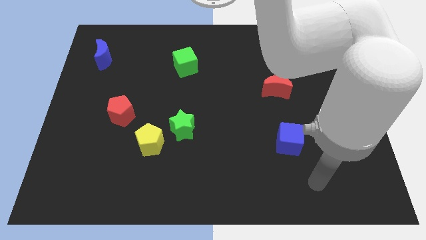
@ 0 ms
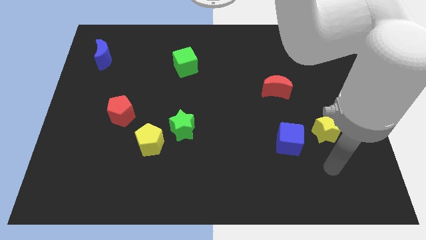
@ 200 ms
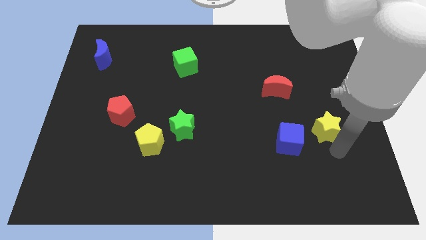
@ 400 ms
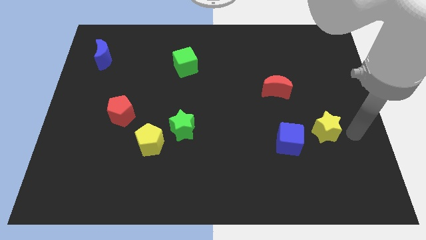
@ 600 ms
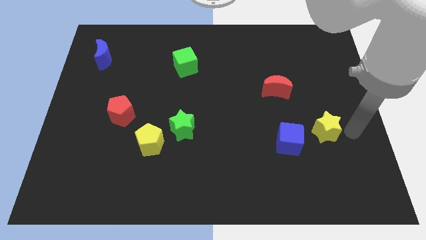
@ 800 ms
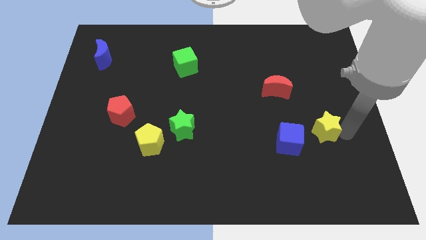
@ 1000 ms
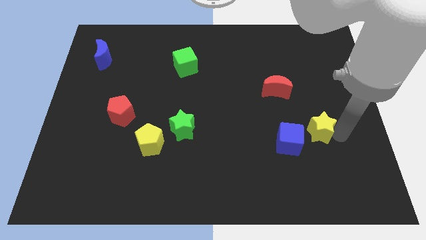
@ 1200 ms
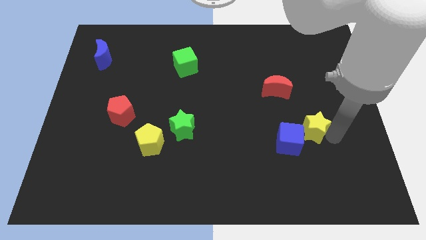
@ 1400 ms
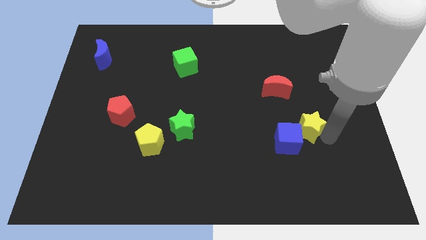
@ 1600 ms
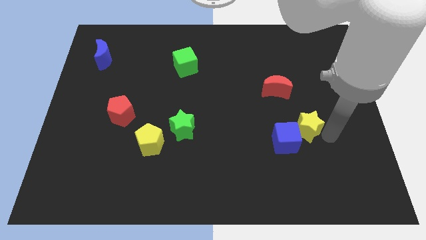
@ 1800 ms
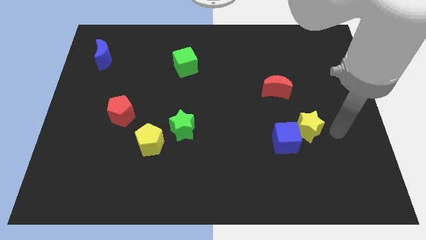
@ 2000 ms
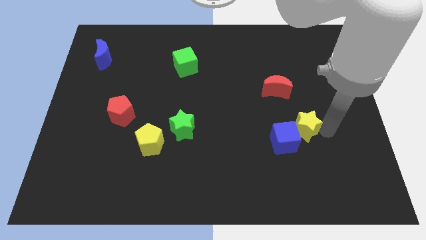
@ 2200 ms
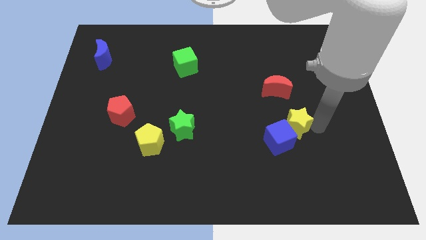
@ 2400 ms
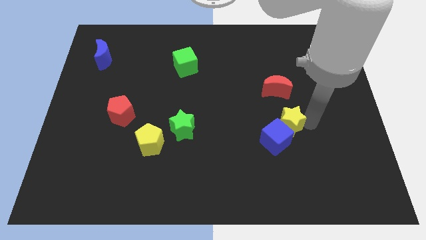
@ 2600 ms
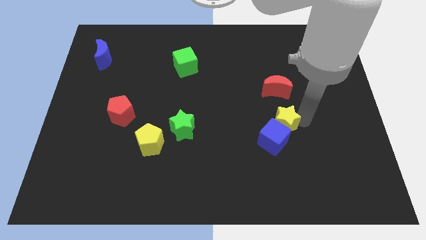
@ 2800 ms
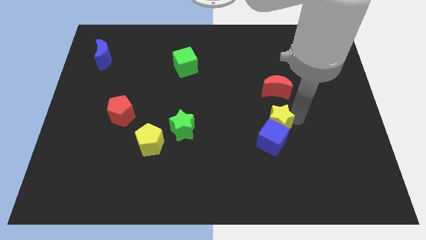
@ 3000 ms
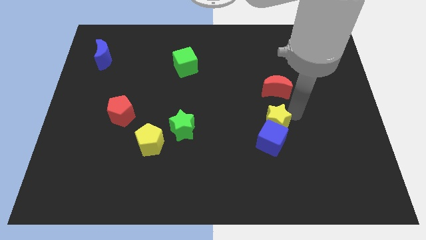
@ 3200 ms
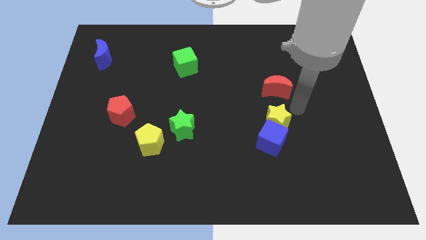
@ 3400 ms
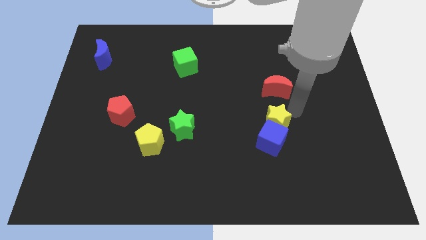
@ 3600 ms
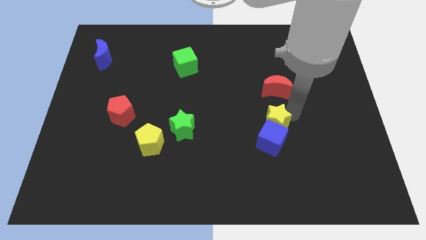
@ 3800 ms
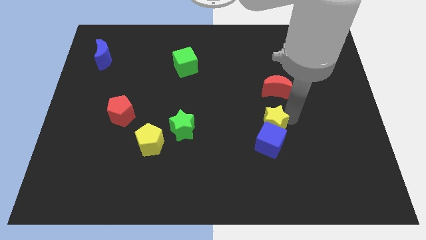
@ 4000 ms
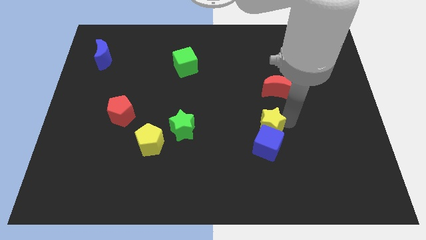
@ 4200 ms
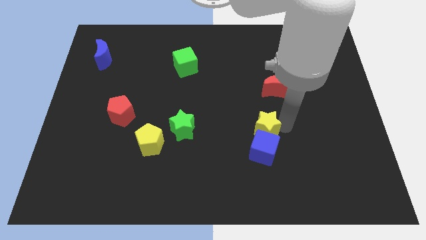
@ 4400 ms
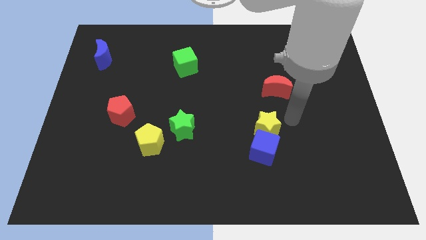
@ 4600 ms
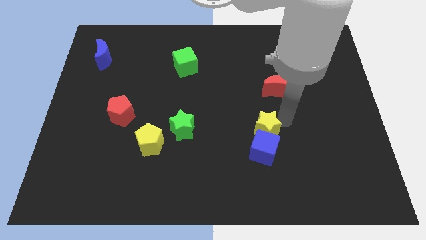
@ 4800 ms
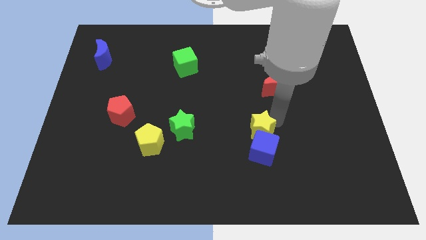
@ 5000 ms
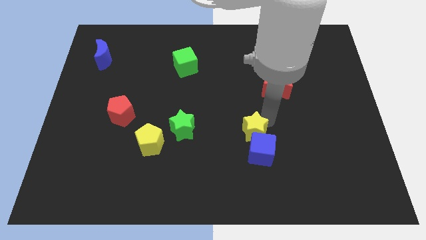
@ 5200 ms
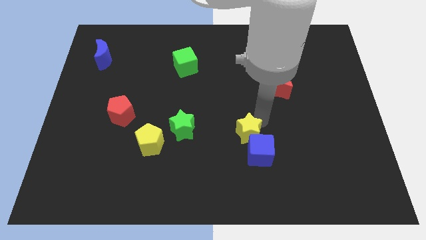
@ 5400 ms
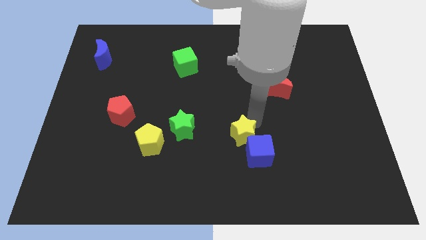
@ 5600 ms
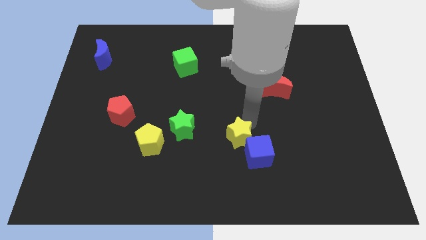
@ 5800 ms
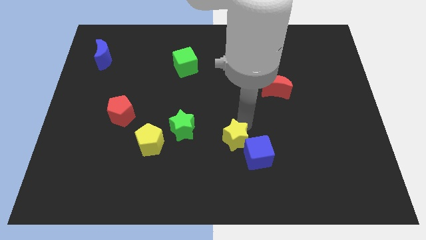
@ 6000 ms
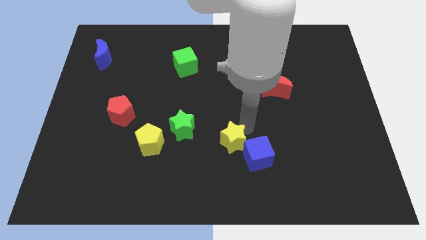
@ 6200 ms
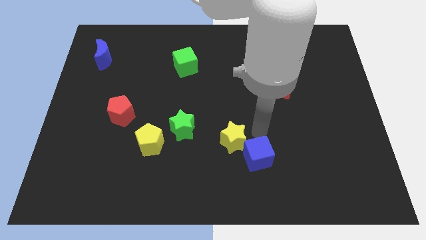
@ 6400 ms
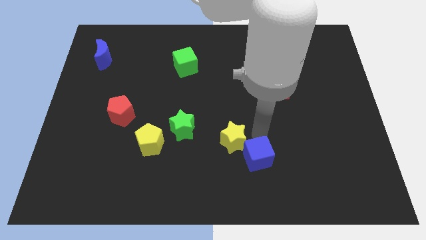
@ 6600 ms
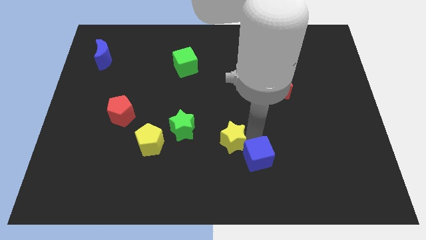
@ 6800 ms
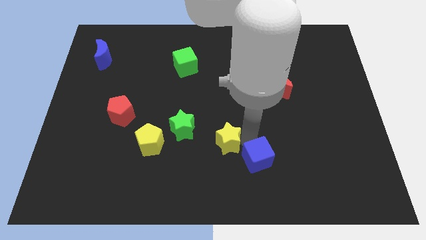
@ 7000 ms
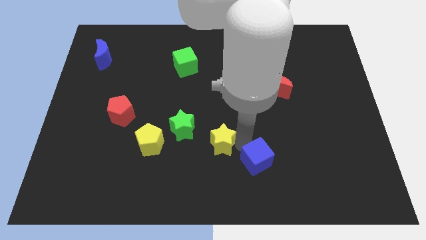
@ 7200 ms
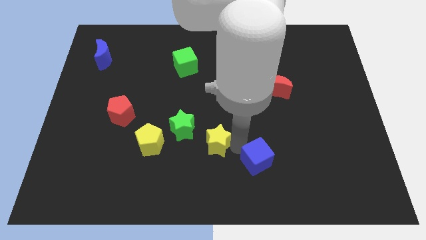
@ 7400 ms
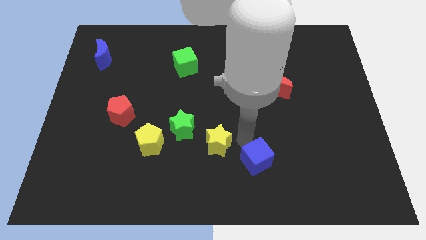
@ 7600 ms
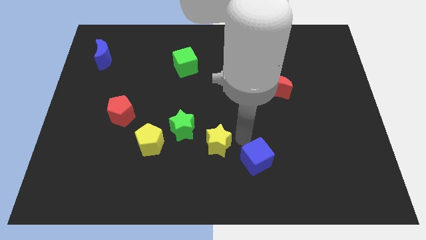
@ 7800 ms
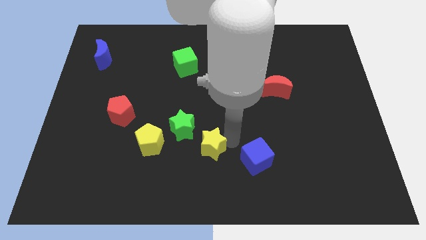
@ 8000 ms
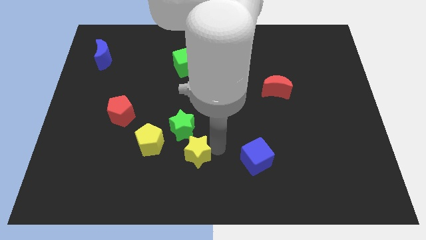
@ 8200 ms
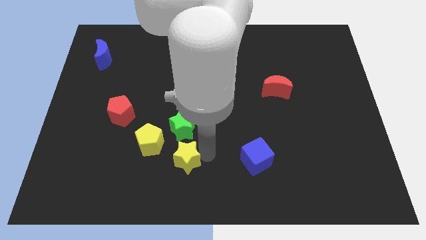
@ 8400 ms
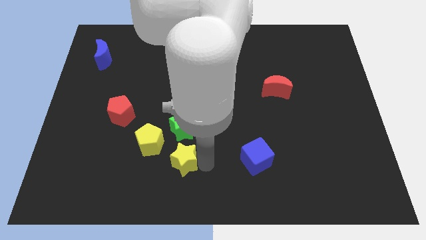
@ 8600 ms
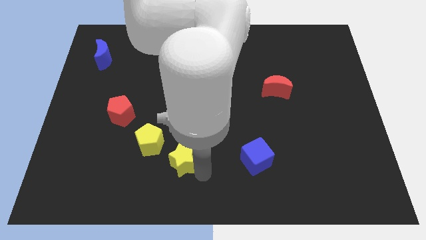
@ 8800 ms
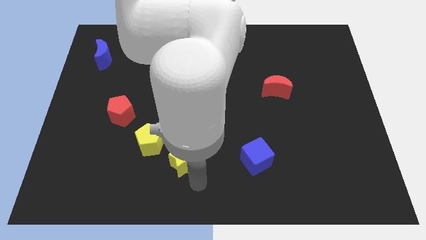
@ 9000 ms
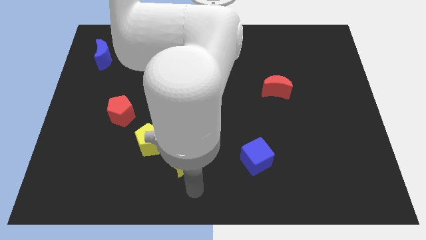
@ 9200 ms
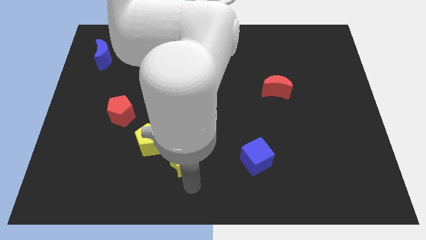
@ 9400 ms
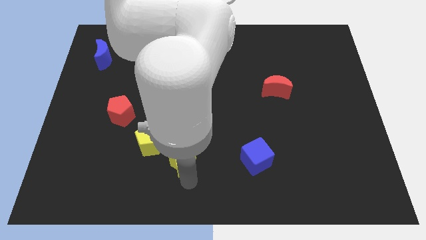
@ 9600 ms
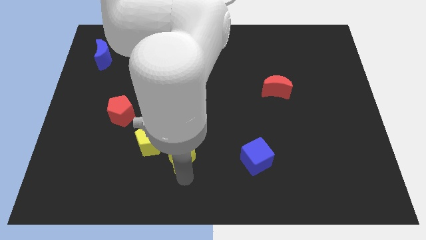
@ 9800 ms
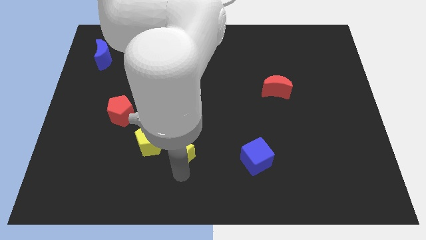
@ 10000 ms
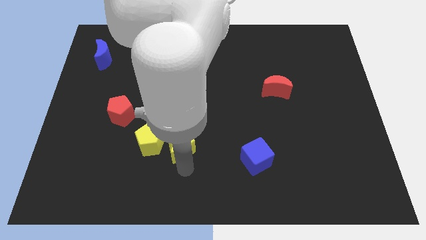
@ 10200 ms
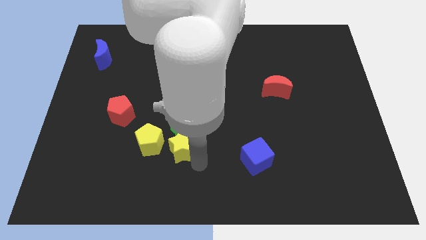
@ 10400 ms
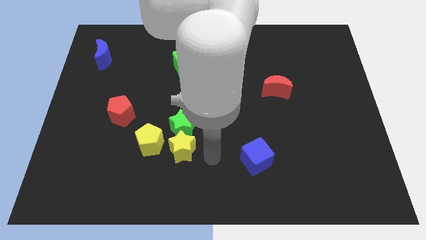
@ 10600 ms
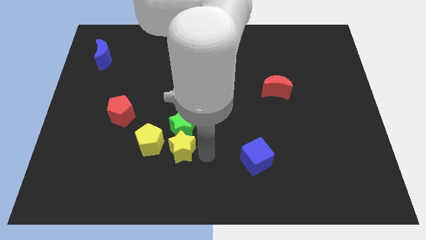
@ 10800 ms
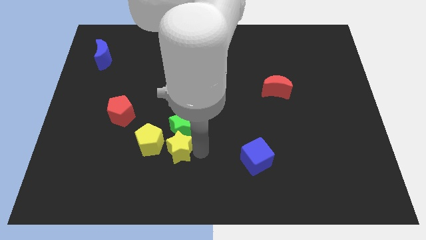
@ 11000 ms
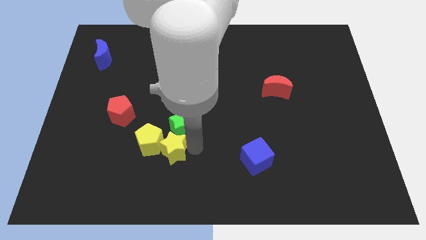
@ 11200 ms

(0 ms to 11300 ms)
push the yellow star next to the yellow pentagon

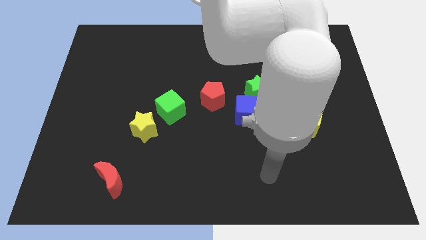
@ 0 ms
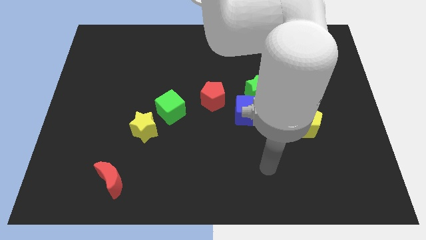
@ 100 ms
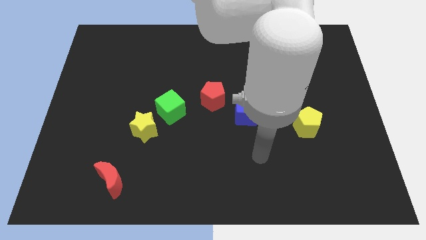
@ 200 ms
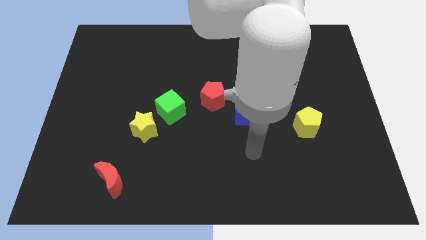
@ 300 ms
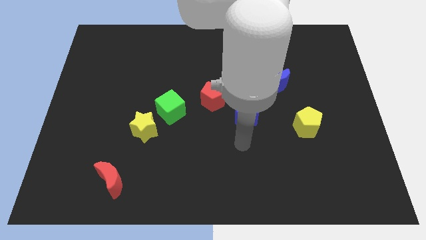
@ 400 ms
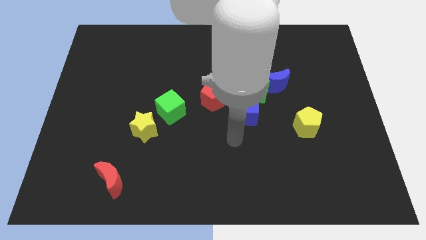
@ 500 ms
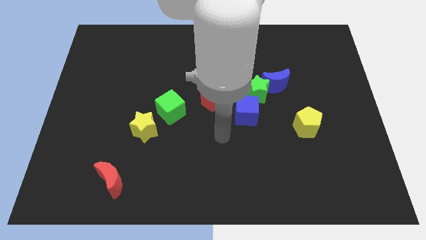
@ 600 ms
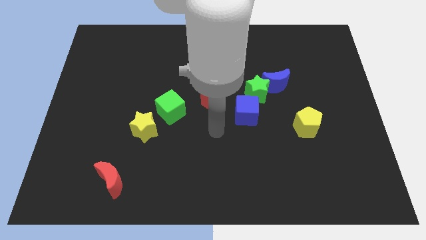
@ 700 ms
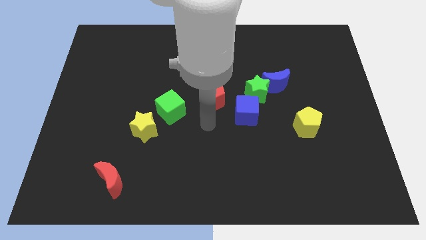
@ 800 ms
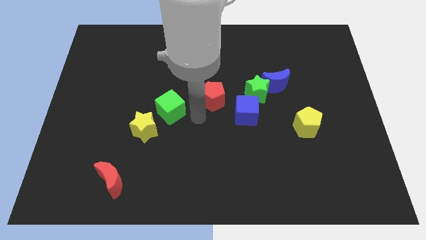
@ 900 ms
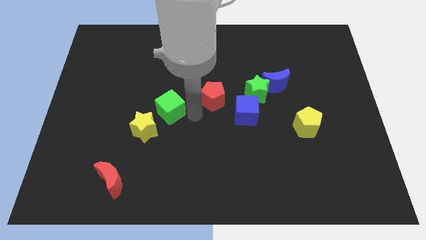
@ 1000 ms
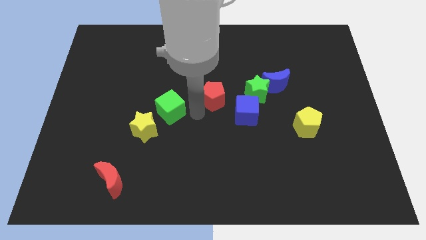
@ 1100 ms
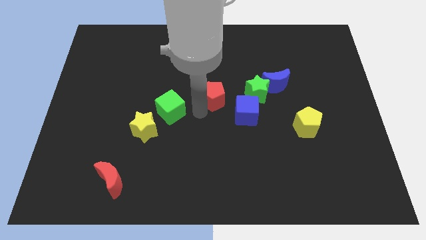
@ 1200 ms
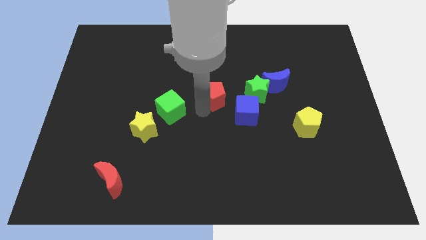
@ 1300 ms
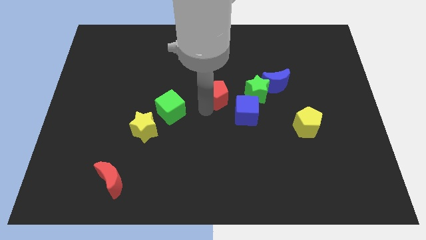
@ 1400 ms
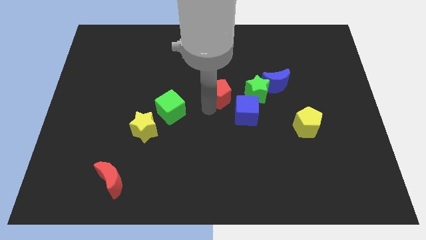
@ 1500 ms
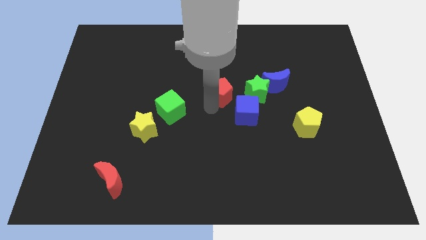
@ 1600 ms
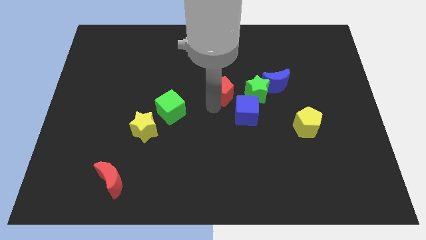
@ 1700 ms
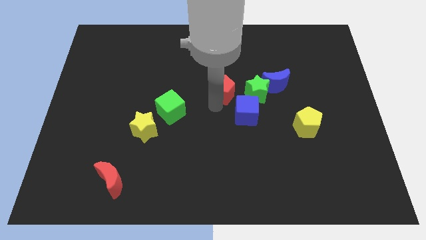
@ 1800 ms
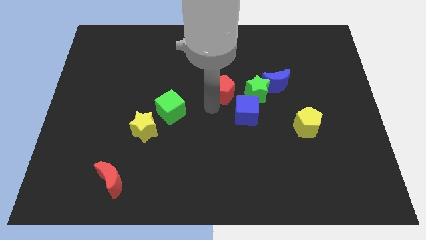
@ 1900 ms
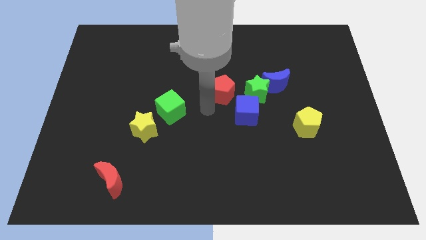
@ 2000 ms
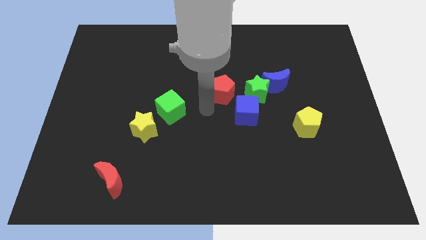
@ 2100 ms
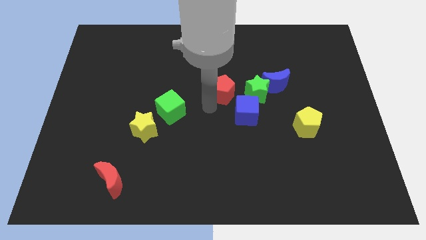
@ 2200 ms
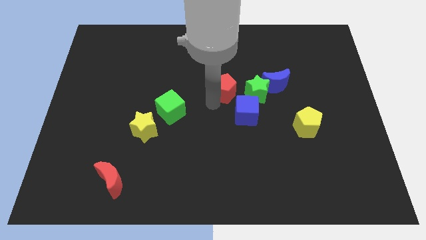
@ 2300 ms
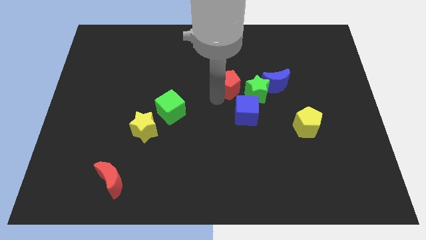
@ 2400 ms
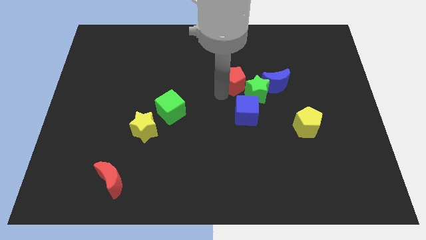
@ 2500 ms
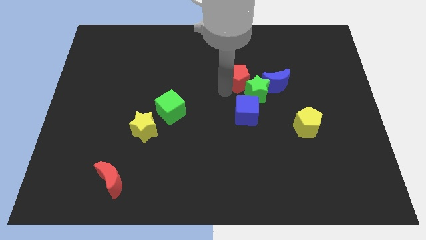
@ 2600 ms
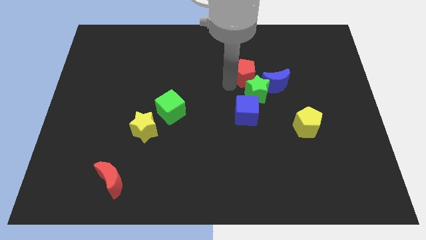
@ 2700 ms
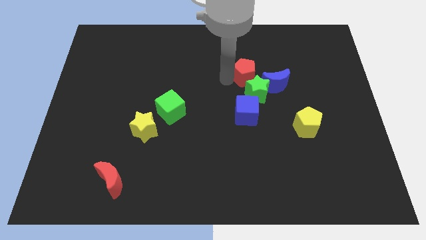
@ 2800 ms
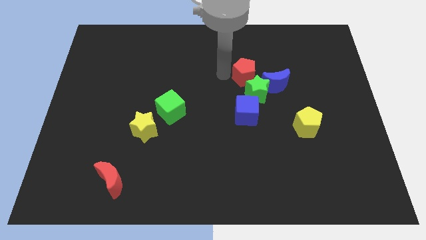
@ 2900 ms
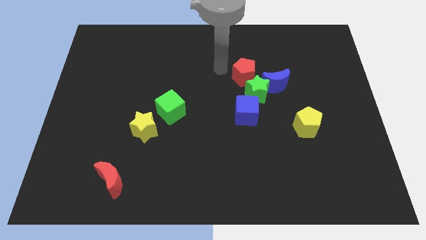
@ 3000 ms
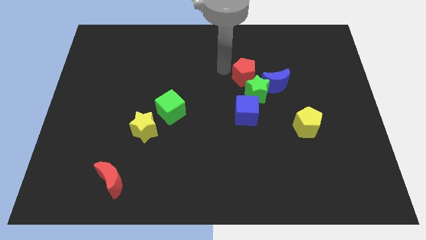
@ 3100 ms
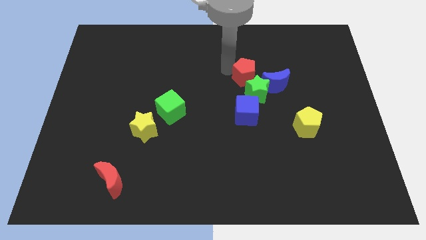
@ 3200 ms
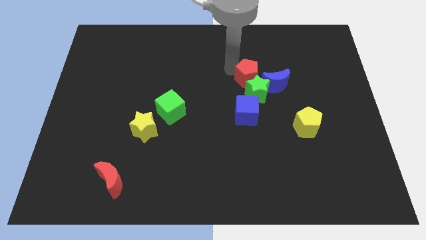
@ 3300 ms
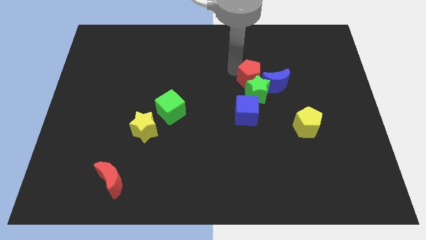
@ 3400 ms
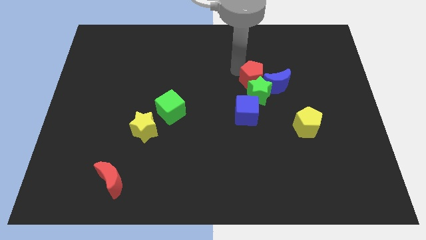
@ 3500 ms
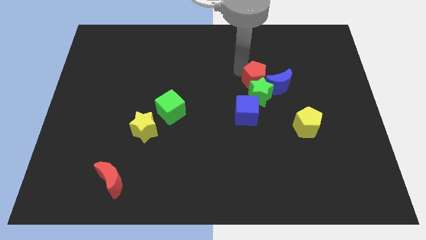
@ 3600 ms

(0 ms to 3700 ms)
move the red pentagon to the blue moon
